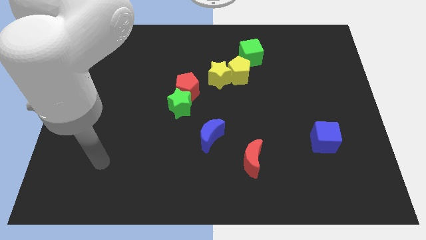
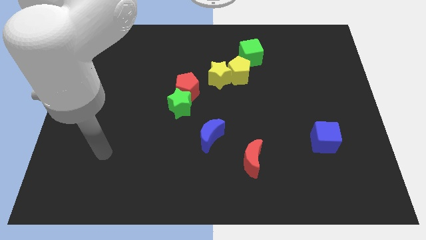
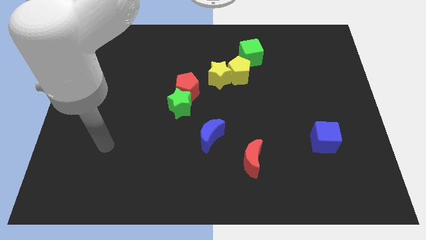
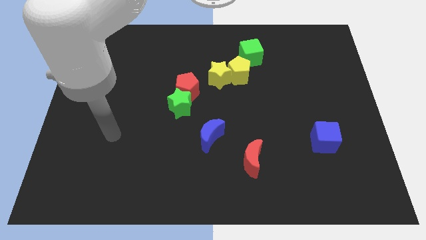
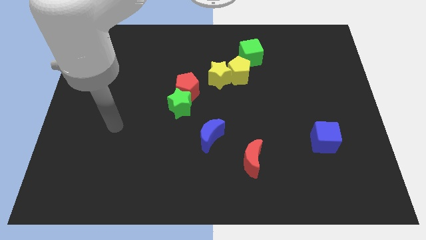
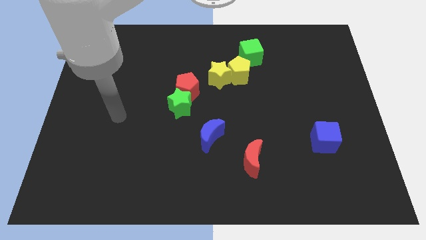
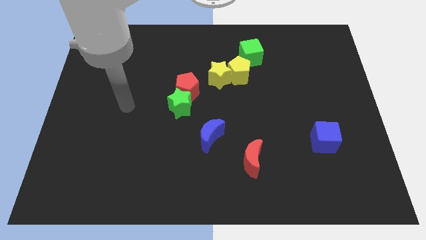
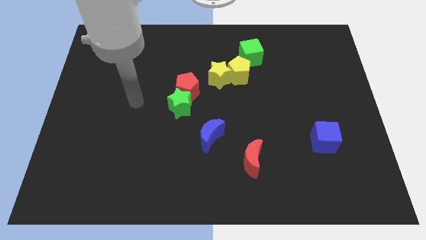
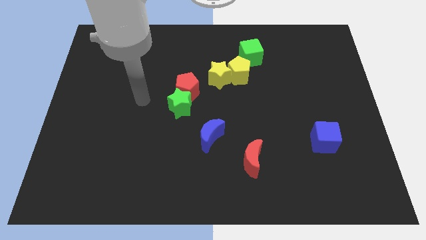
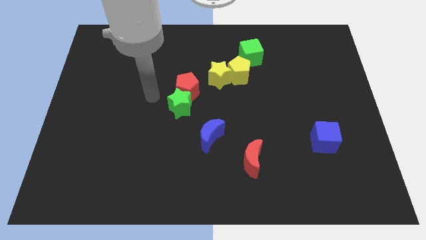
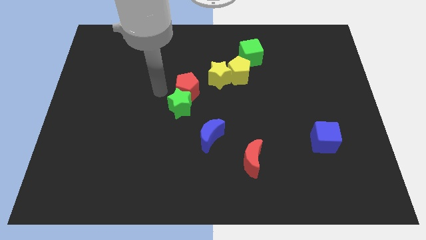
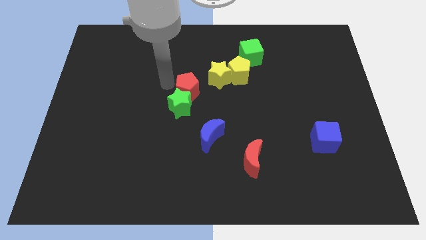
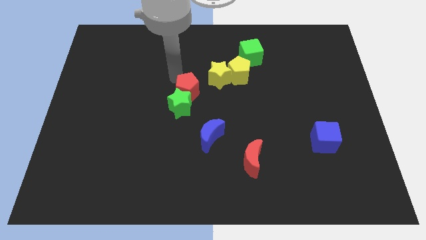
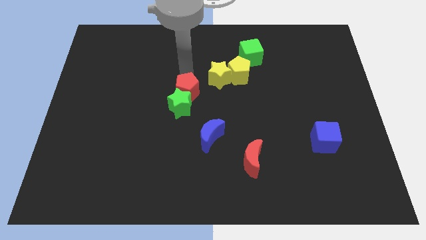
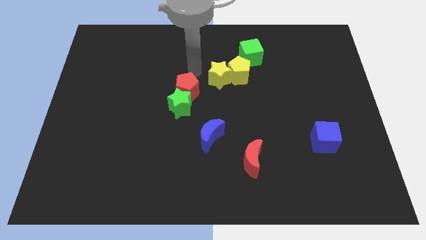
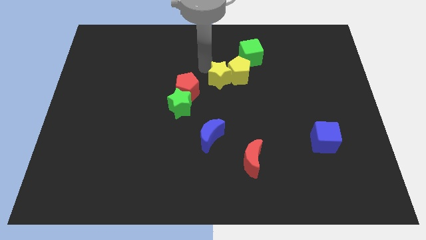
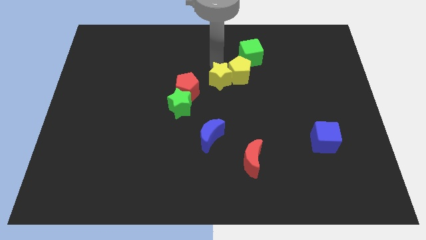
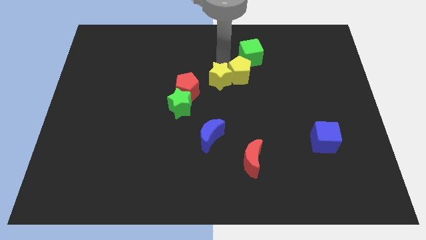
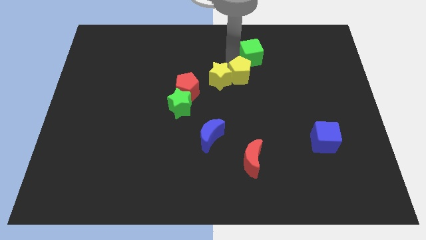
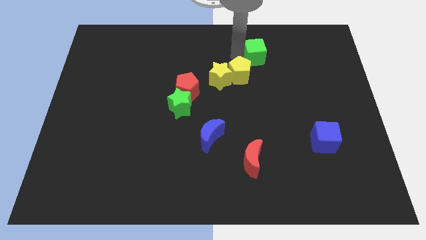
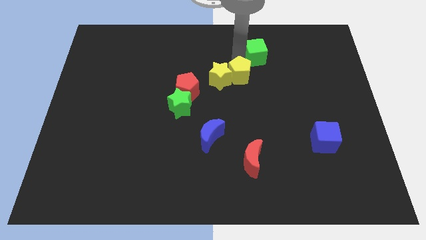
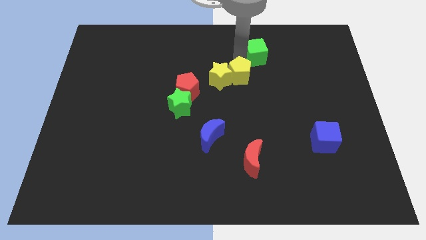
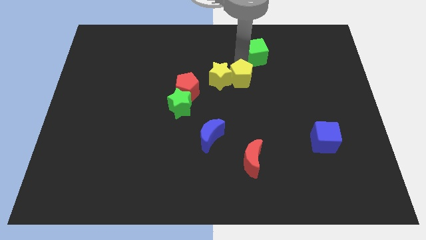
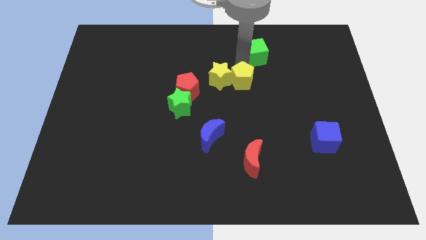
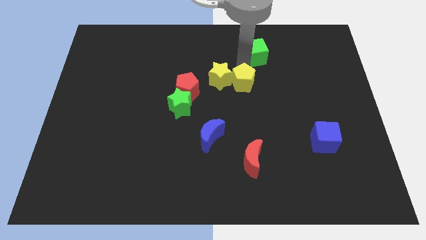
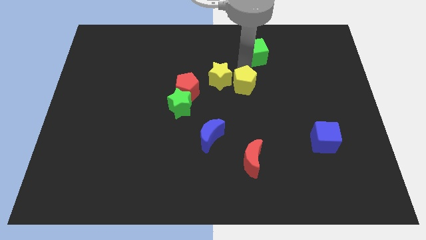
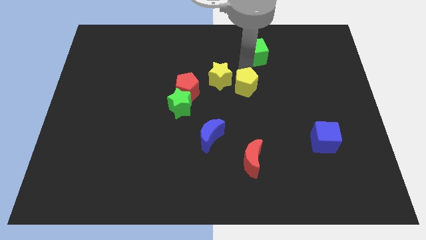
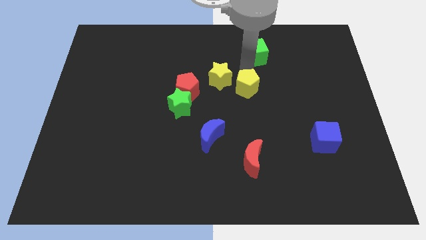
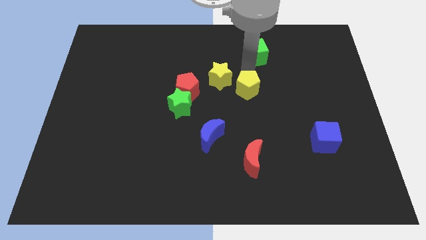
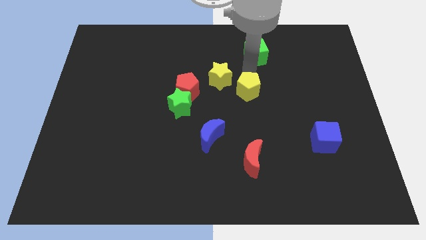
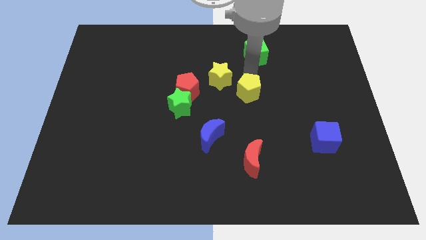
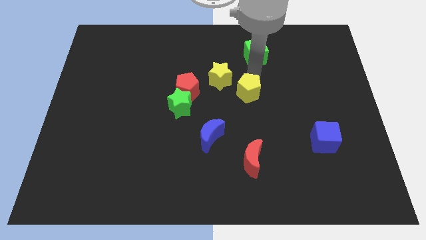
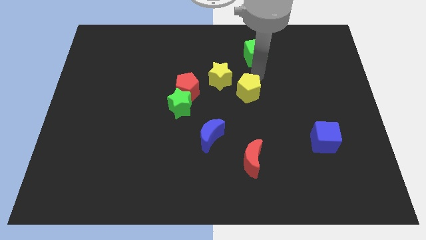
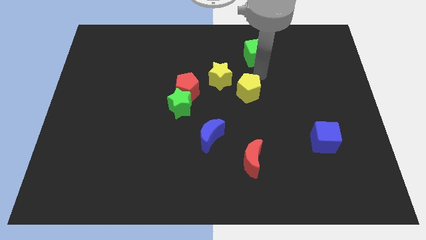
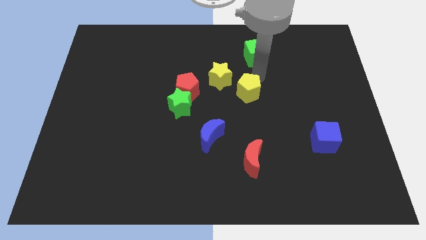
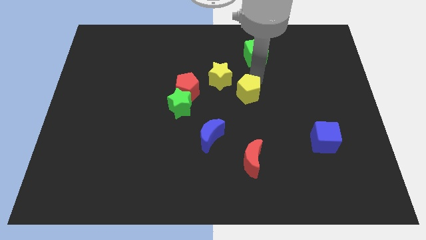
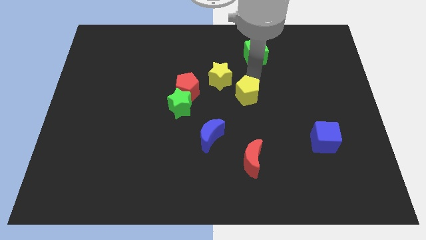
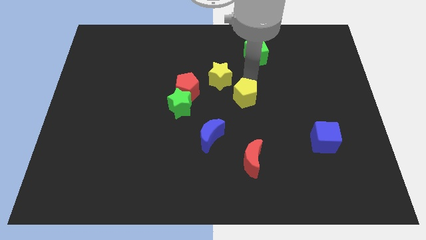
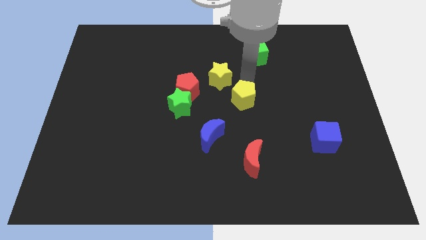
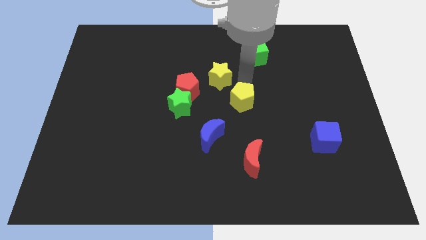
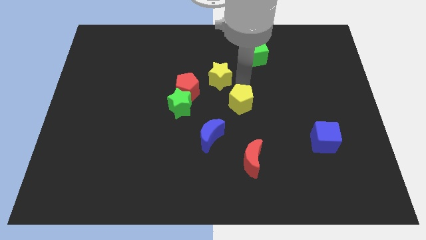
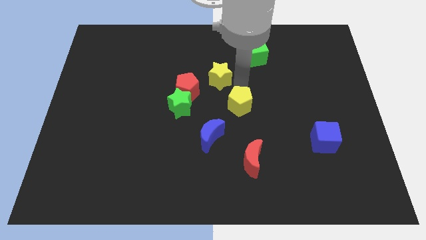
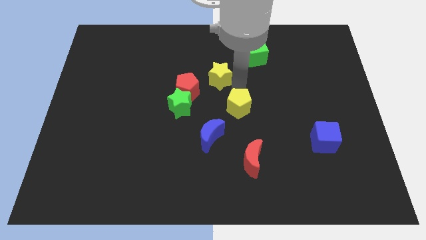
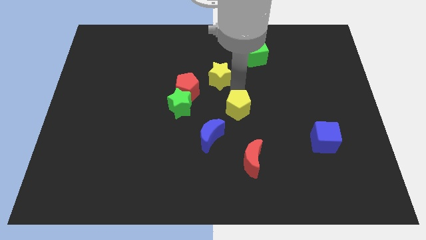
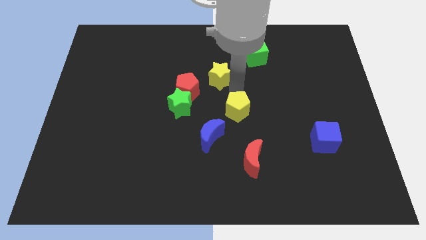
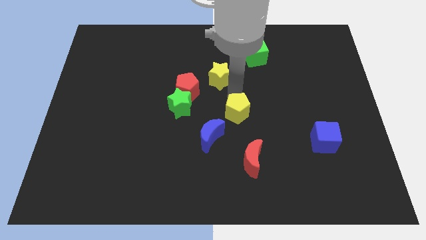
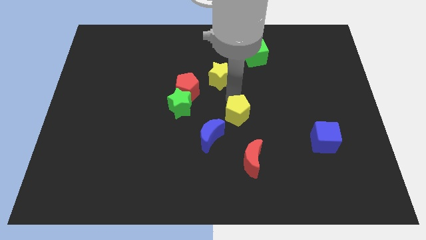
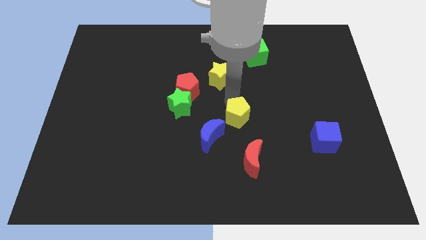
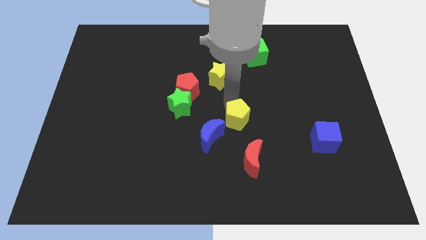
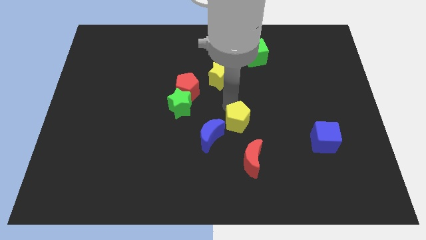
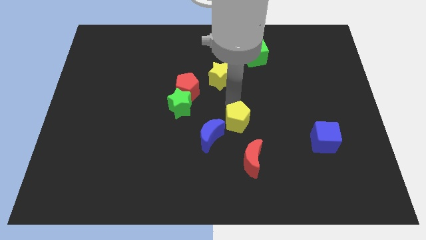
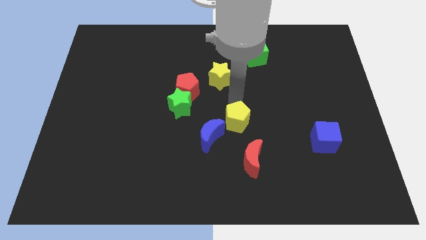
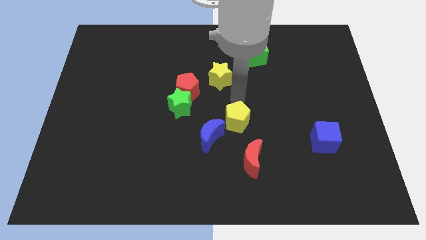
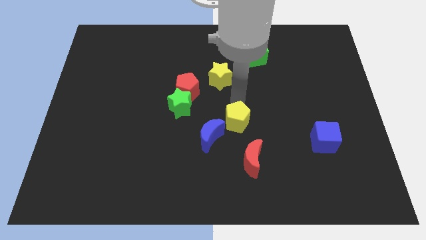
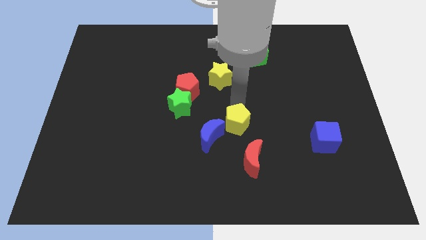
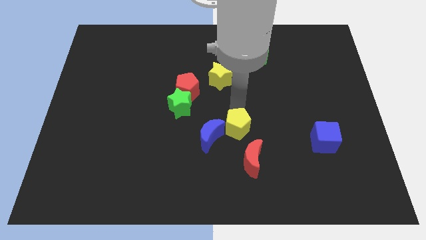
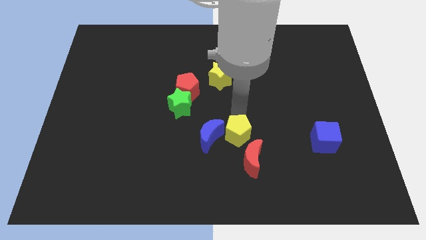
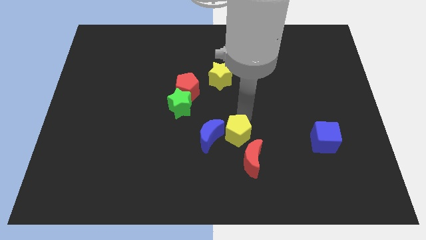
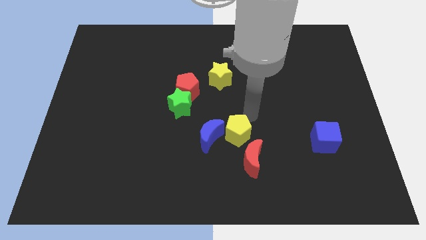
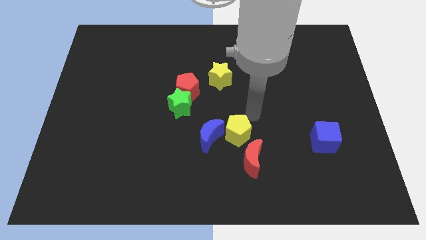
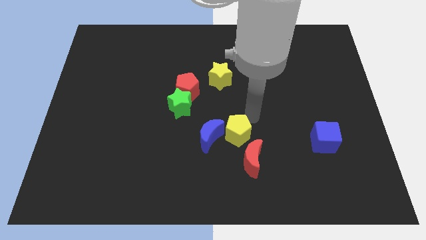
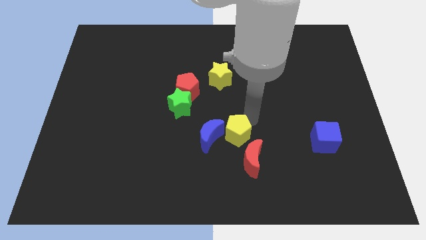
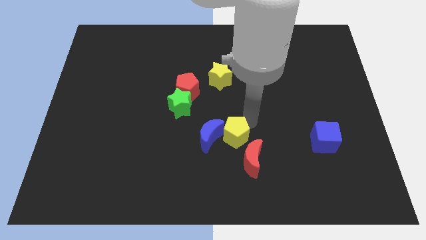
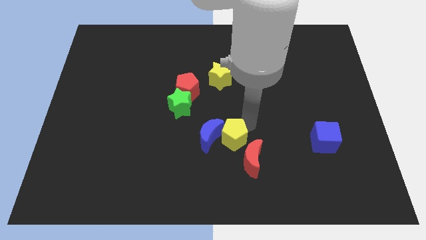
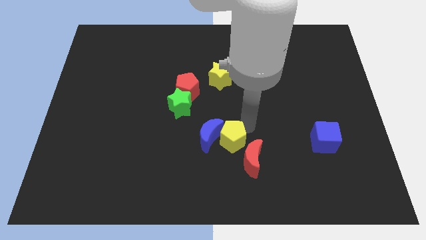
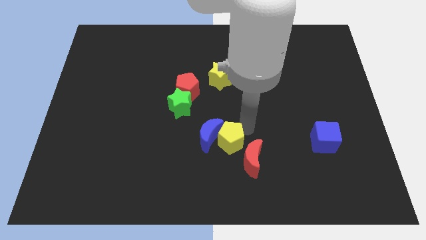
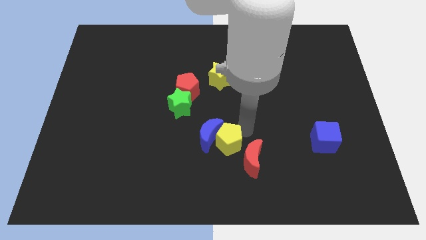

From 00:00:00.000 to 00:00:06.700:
move the yellow pentagon just left of the red moon

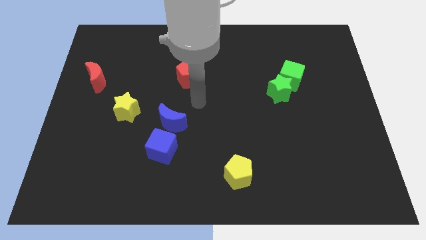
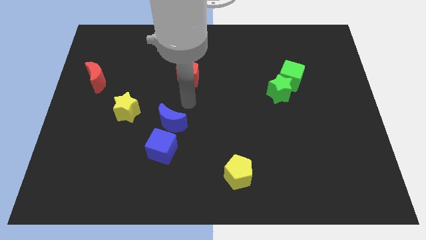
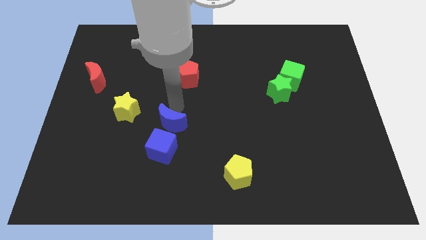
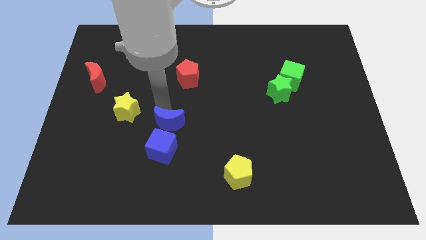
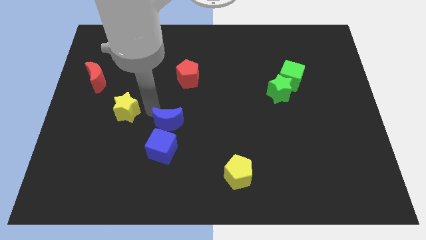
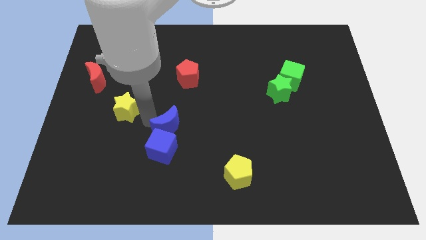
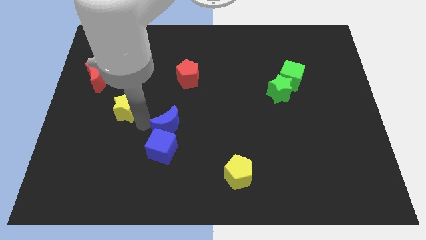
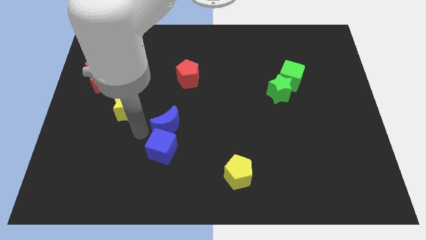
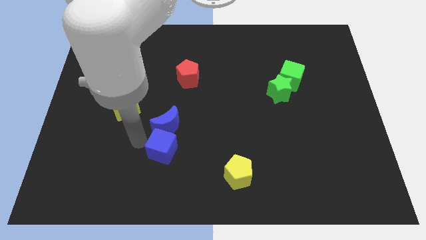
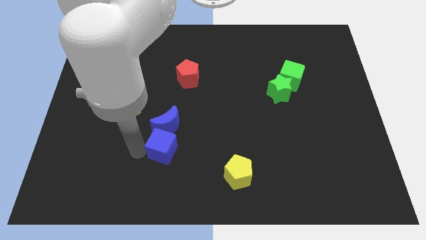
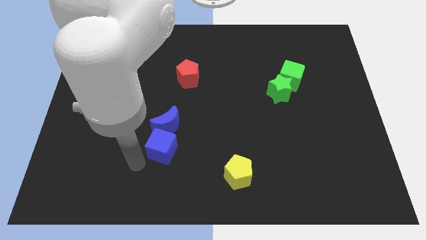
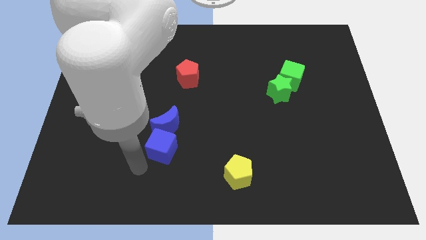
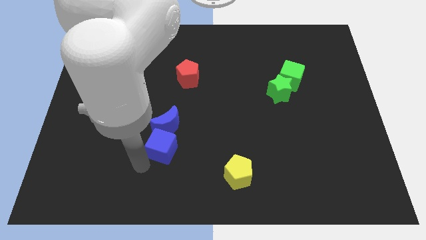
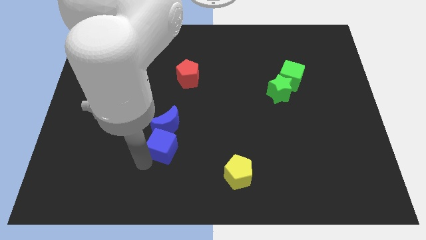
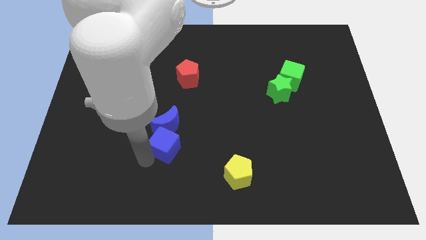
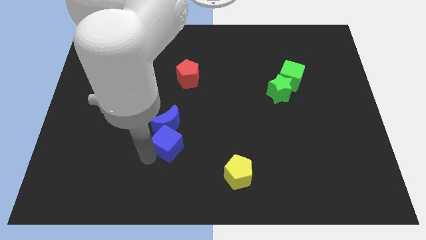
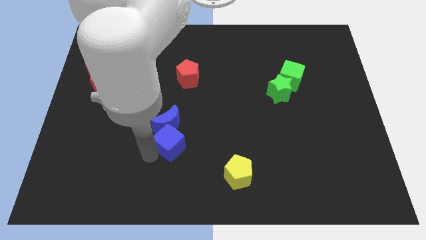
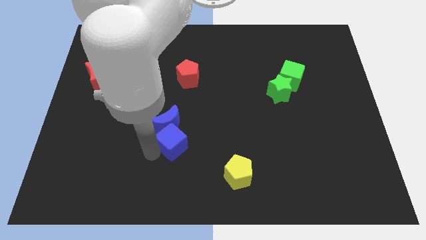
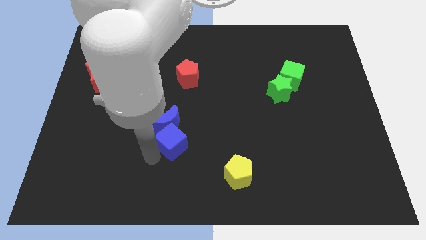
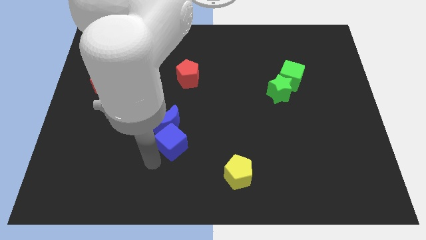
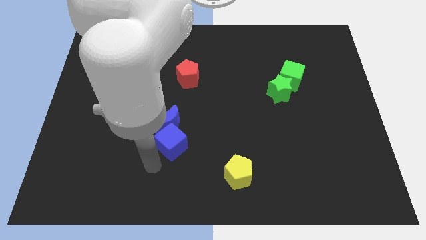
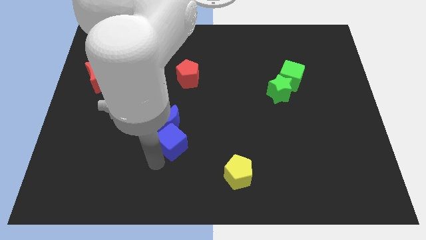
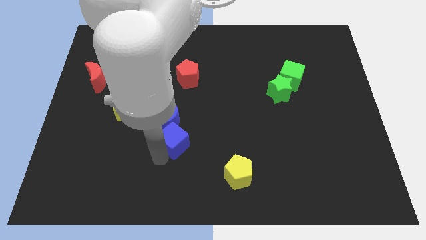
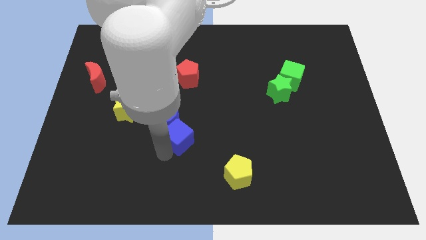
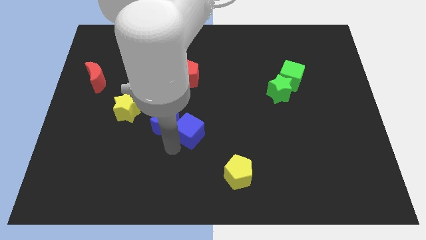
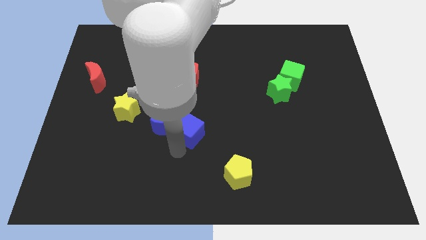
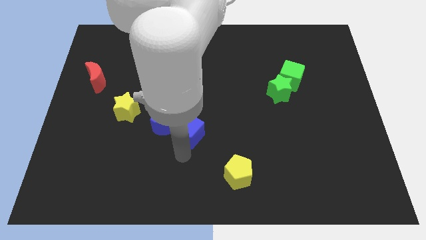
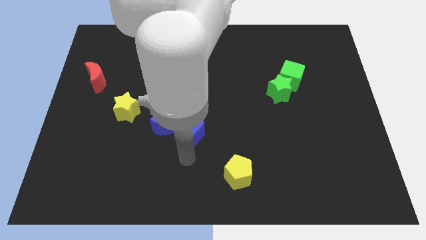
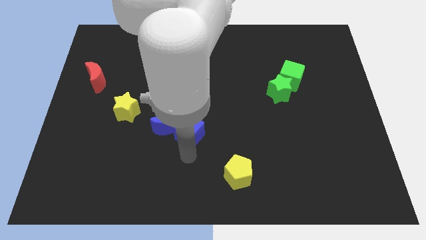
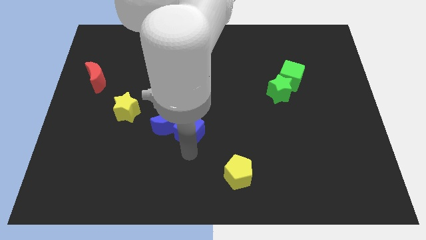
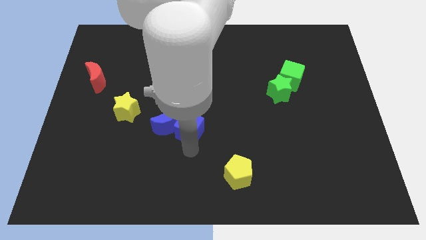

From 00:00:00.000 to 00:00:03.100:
slide the blue cube diagonally up and to the right of the blue moon
